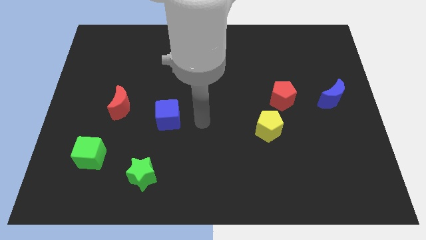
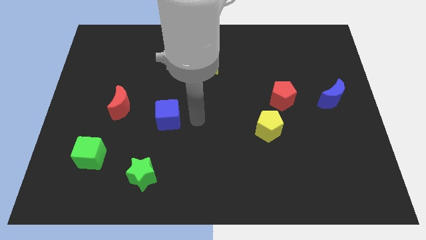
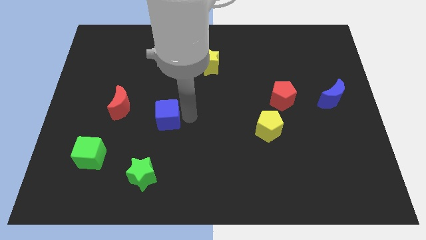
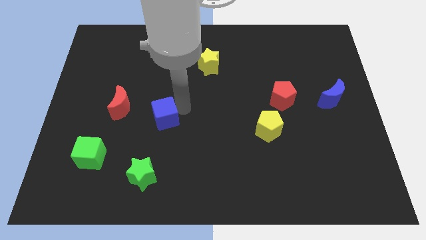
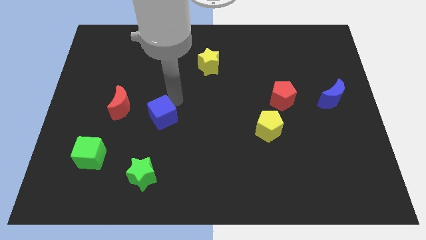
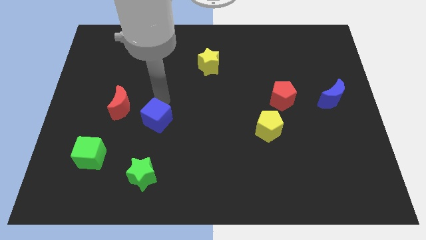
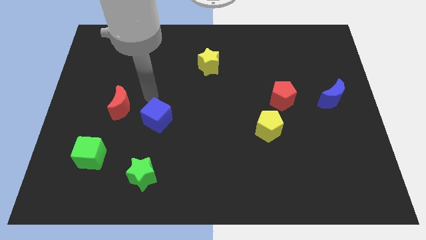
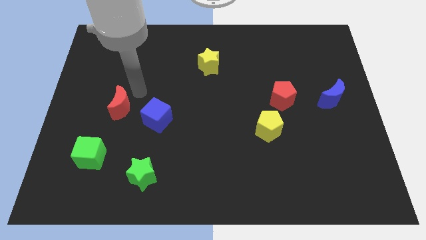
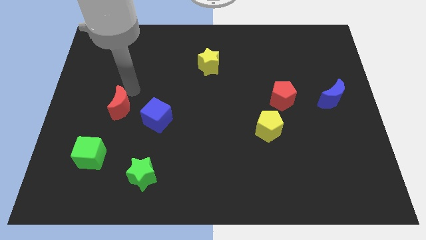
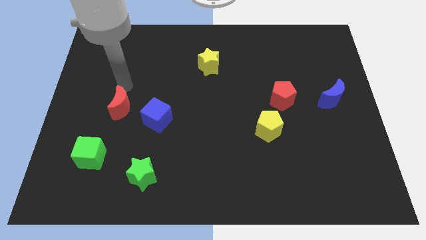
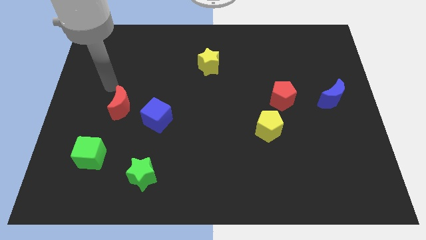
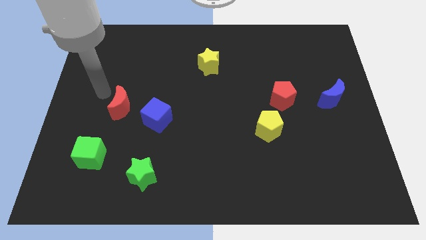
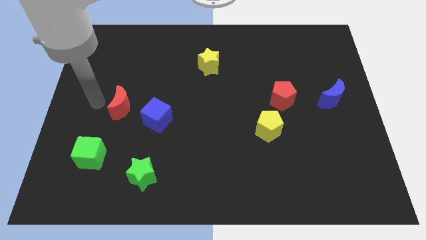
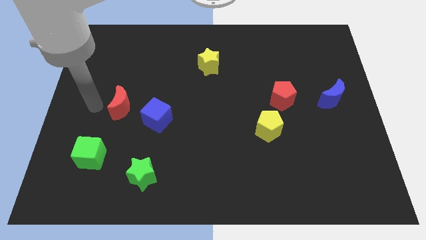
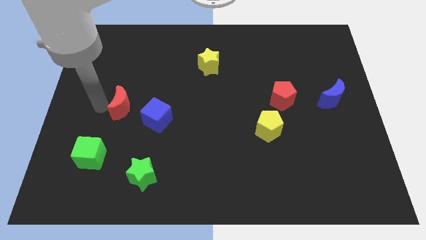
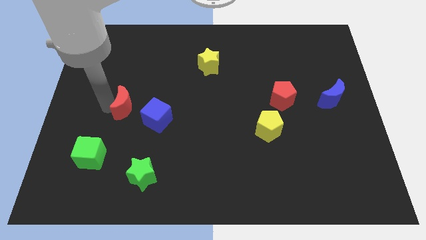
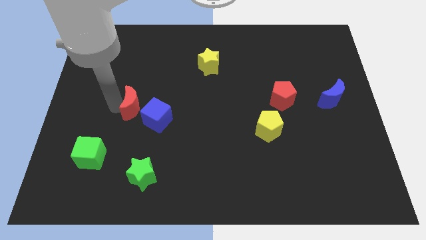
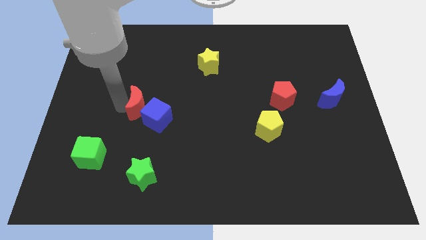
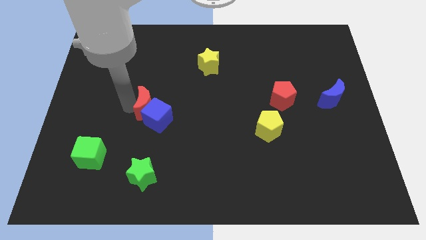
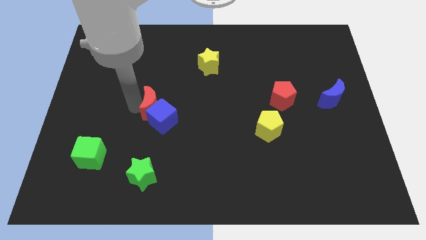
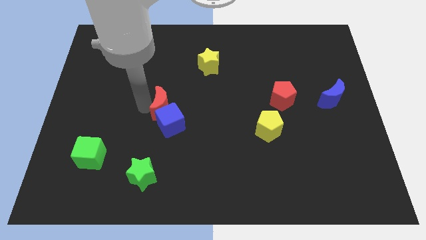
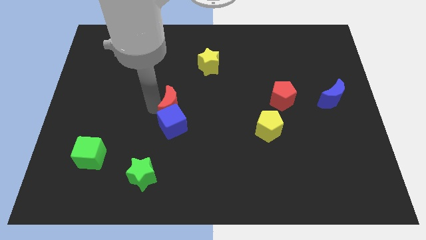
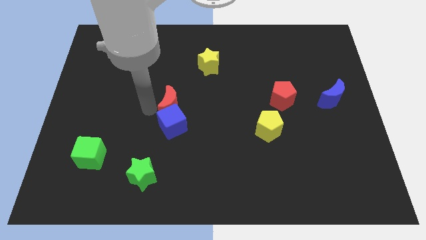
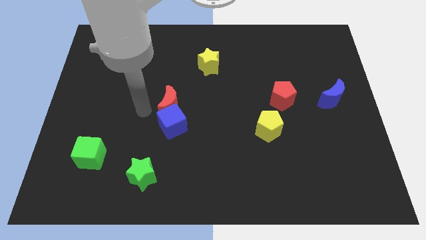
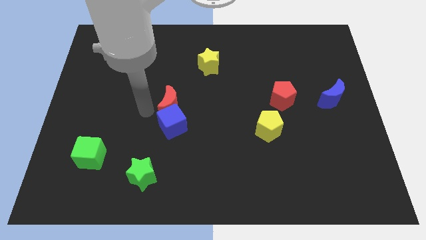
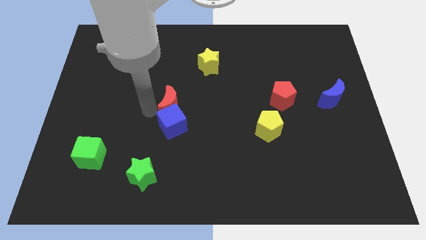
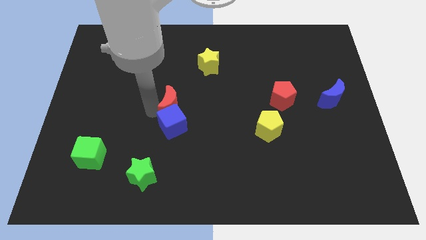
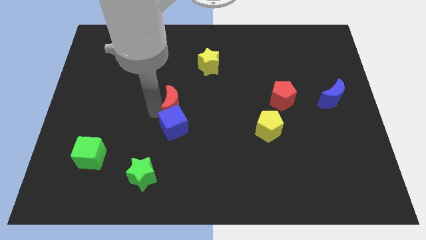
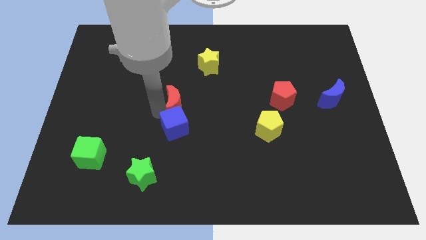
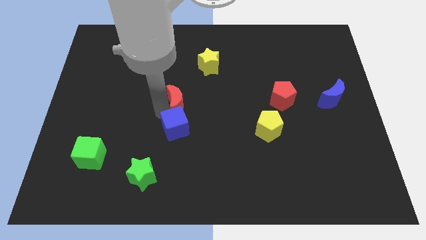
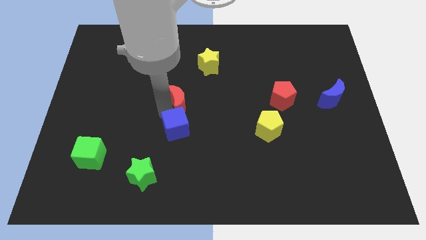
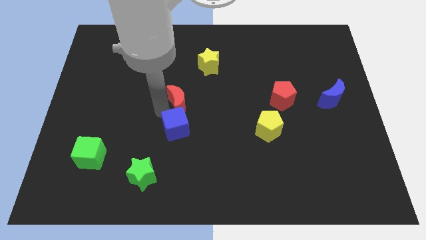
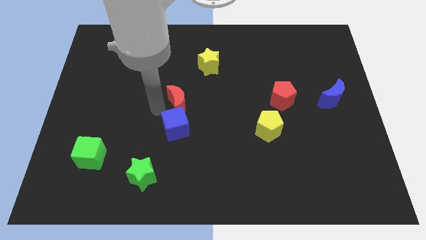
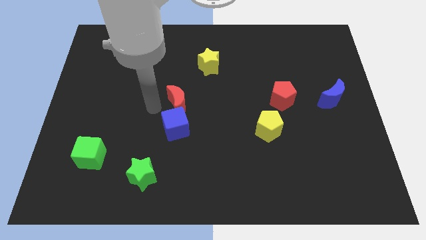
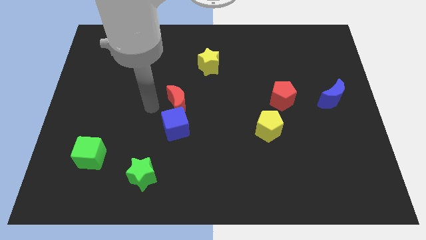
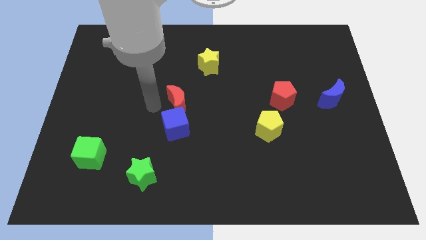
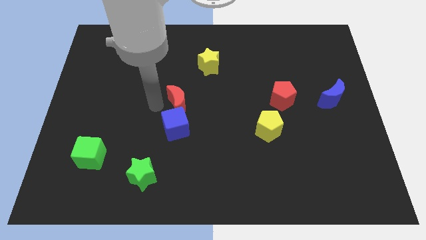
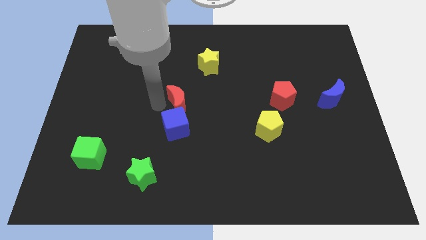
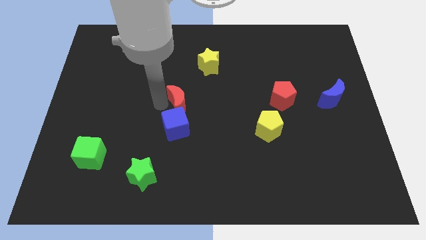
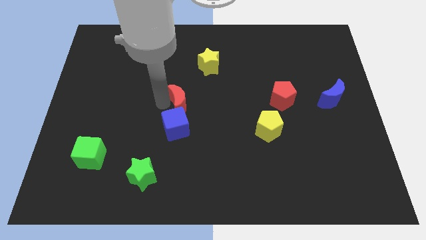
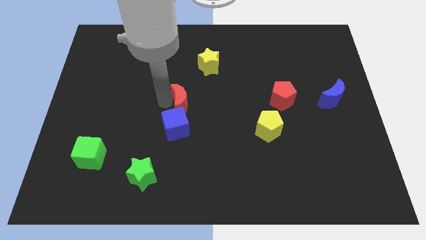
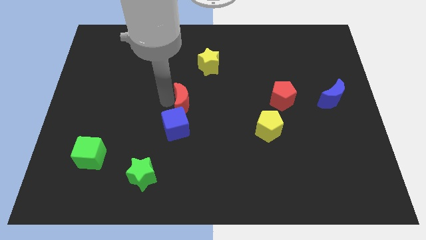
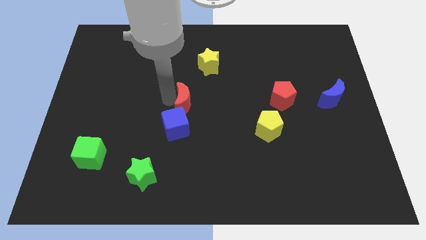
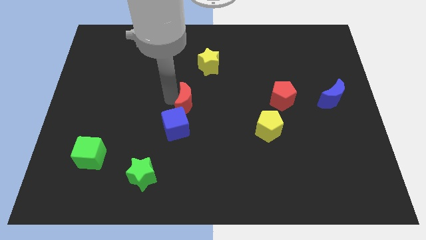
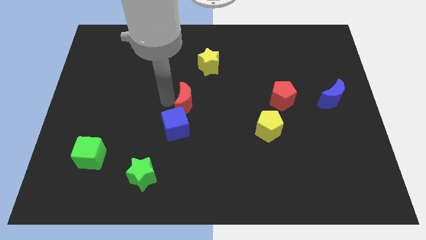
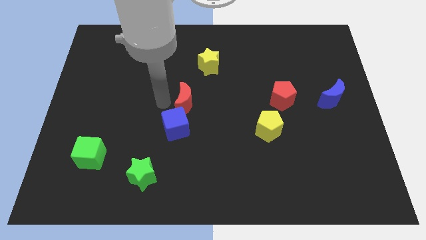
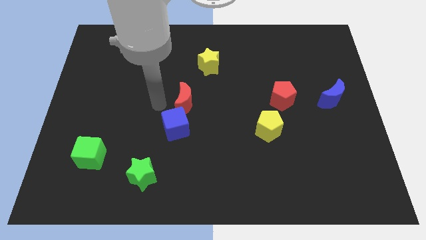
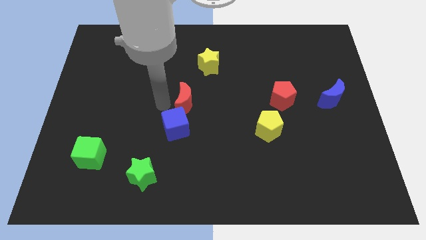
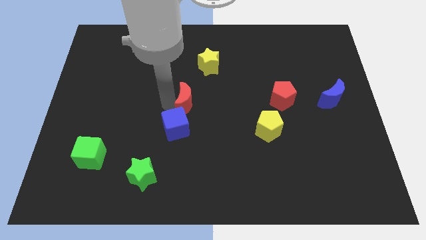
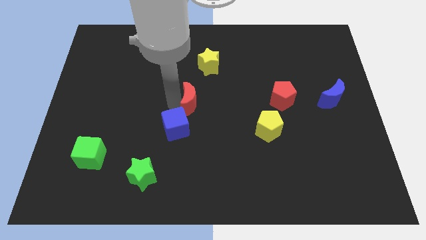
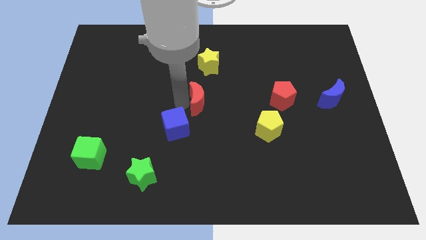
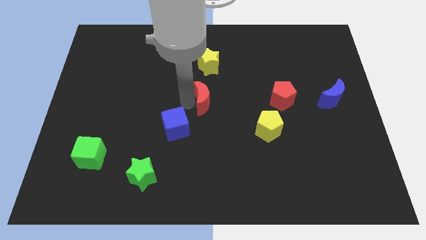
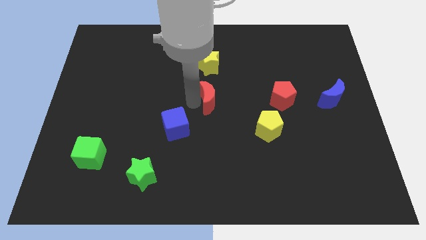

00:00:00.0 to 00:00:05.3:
push the red moon to the right

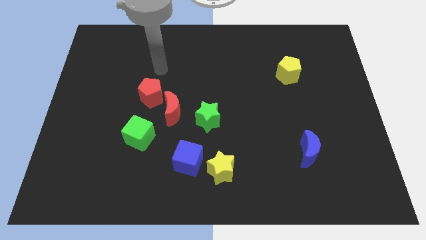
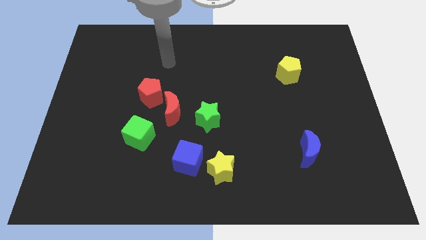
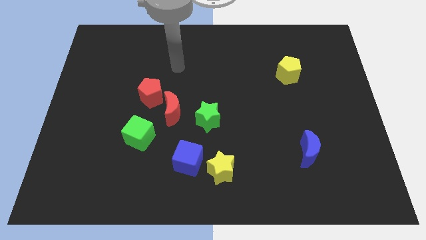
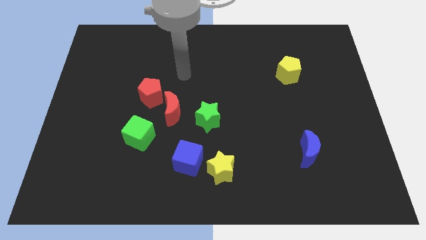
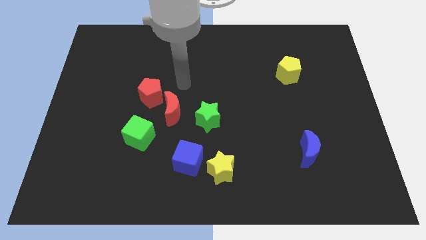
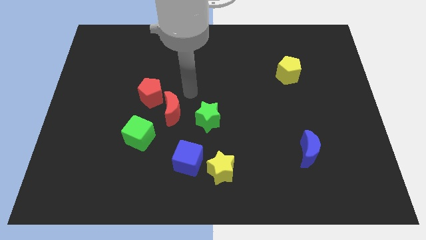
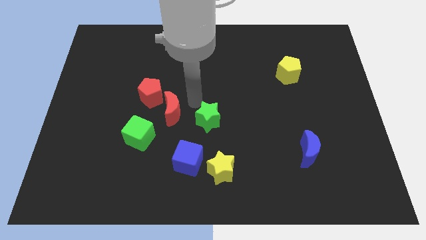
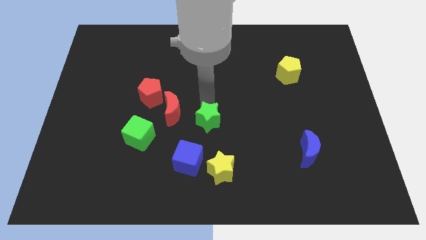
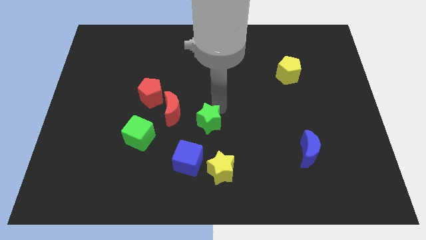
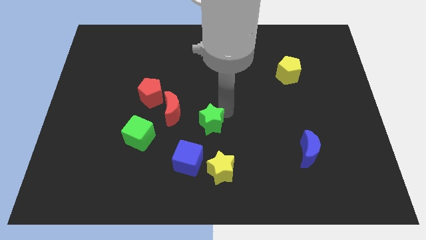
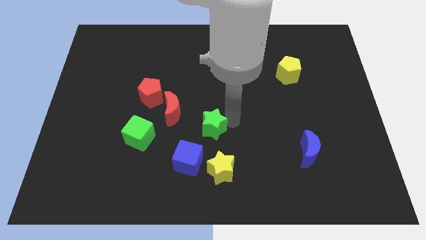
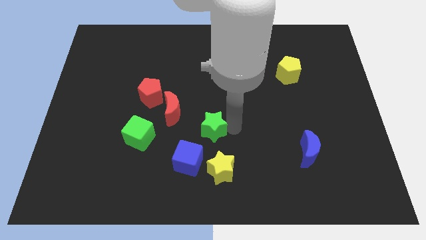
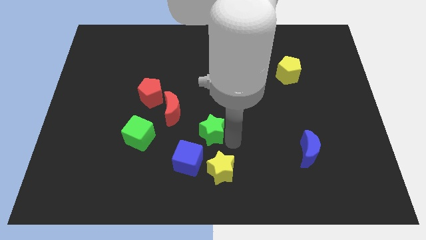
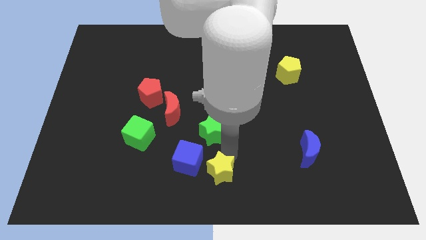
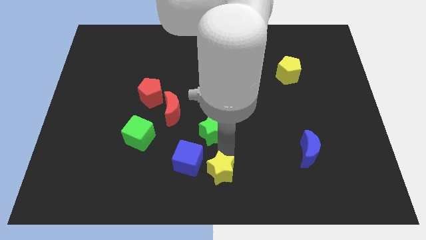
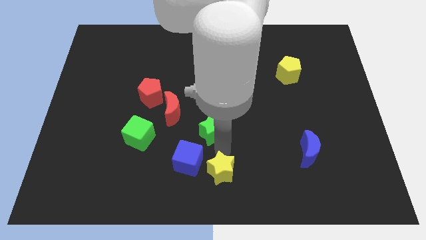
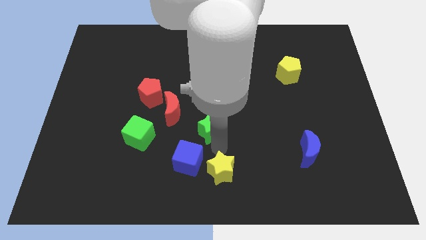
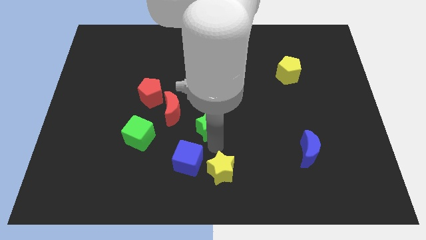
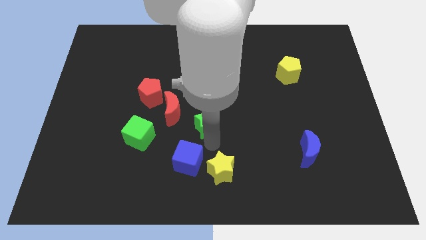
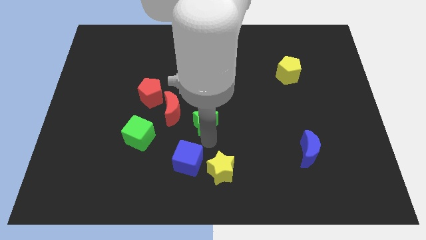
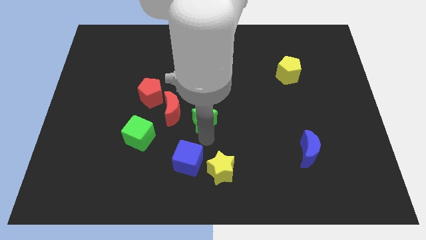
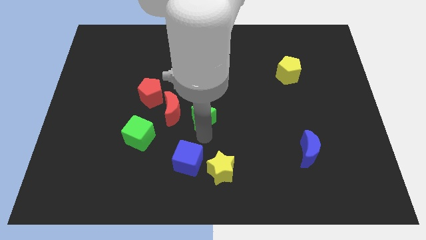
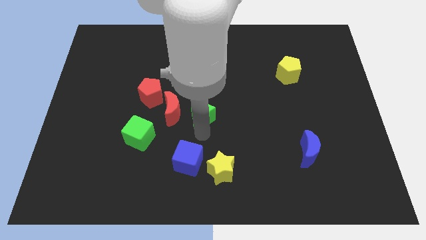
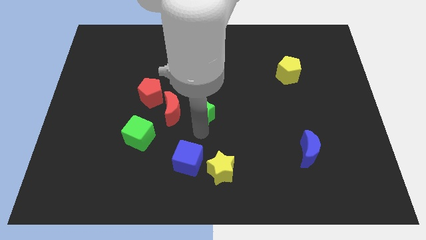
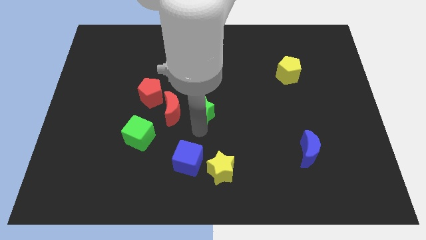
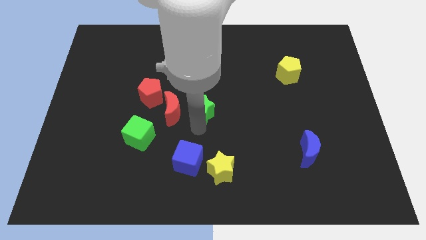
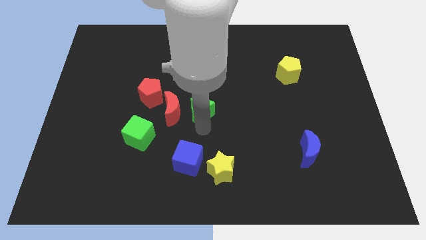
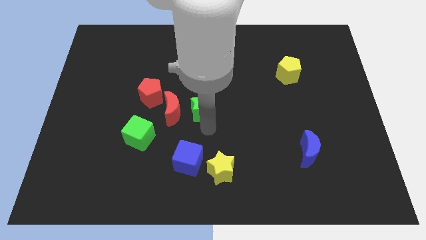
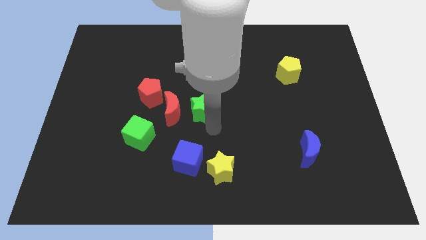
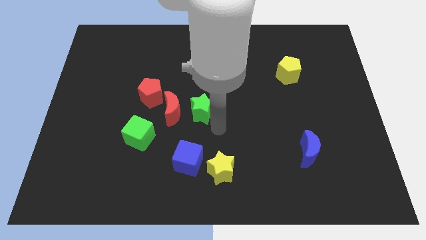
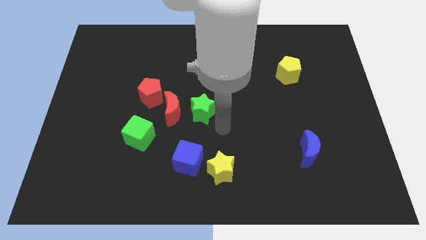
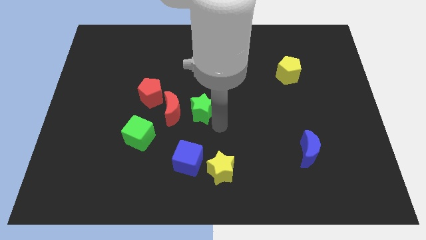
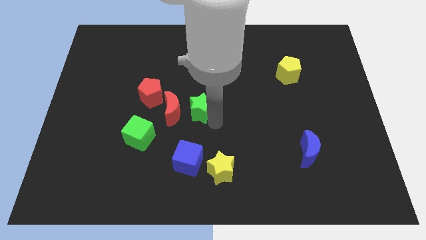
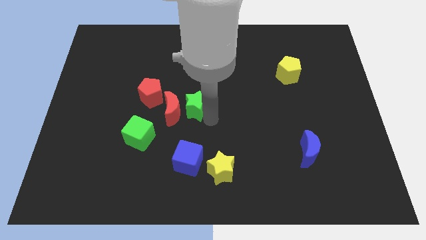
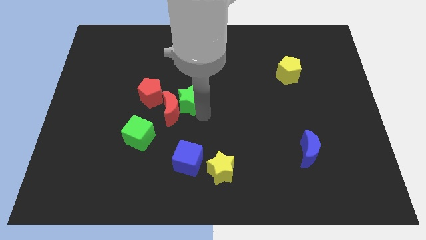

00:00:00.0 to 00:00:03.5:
move the green star up and to the left diagonally a little
